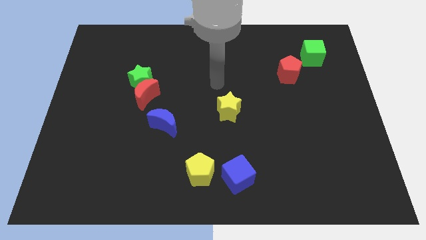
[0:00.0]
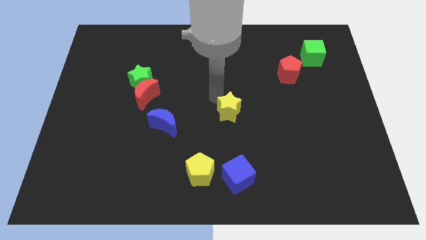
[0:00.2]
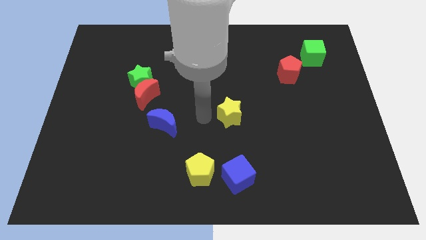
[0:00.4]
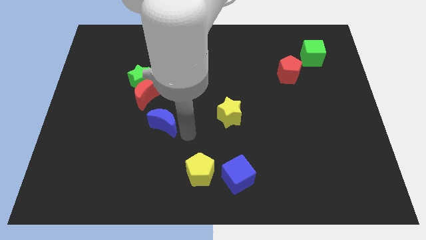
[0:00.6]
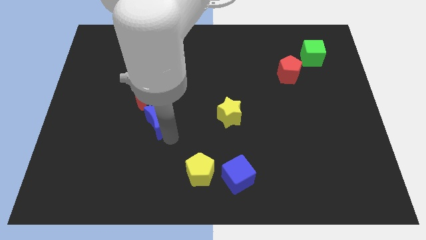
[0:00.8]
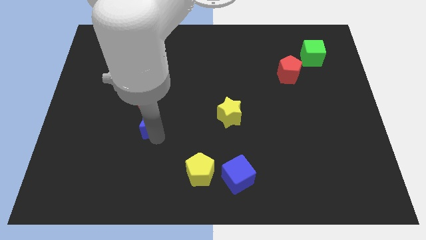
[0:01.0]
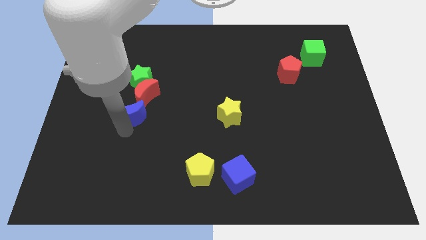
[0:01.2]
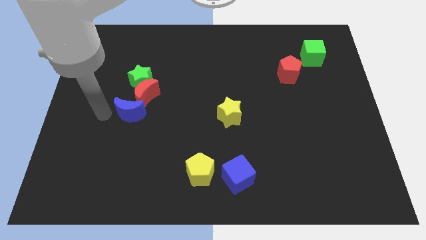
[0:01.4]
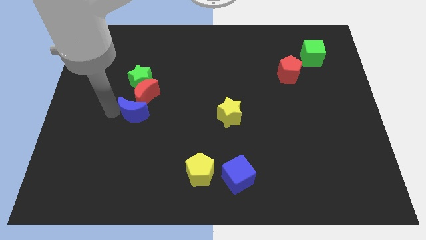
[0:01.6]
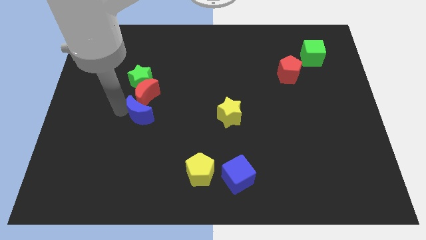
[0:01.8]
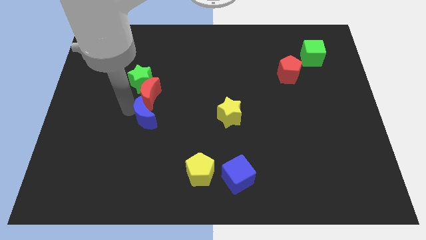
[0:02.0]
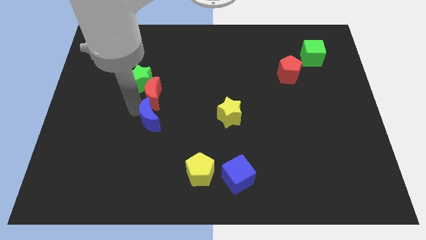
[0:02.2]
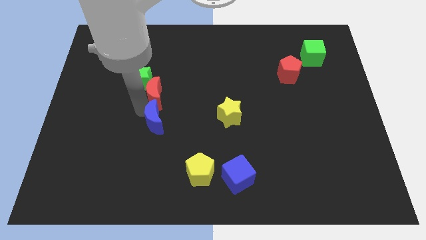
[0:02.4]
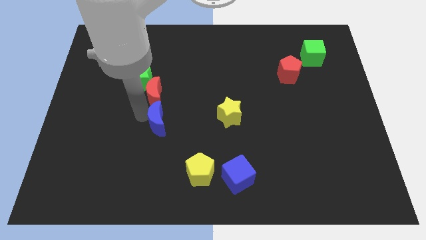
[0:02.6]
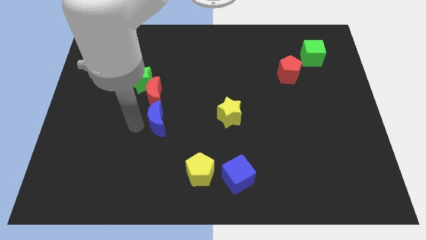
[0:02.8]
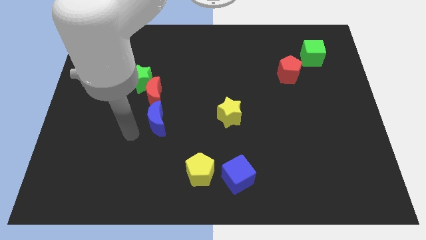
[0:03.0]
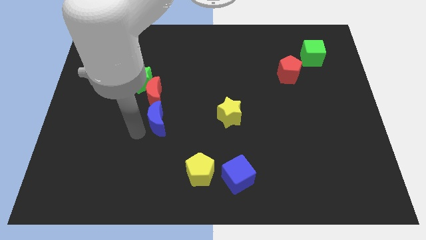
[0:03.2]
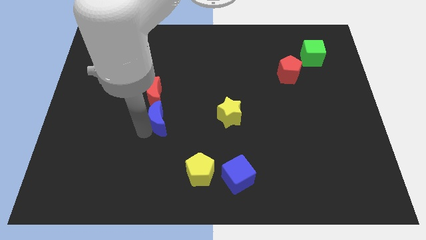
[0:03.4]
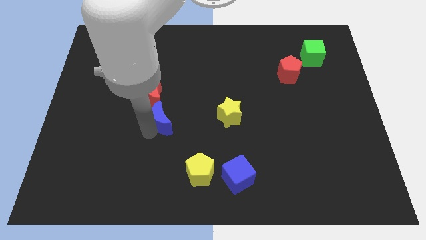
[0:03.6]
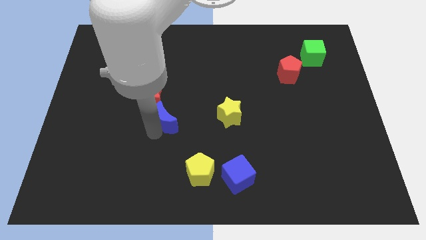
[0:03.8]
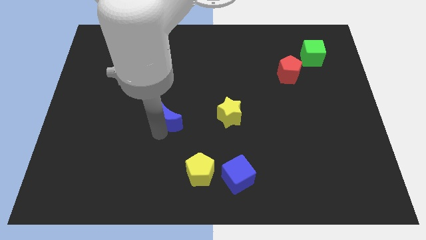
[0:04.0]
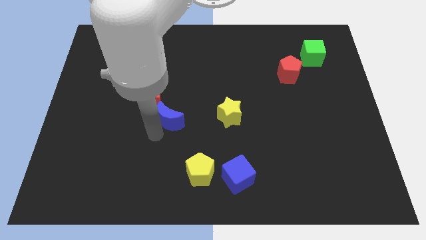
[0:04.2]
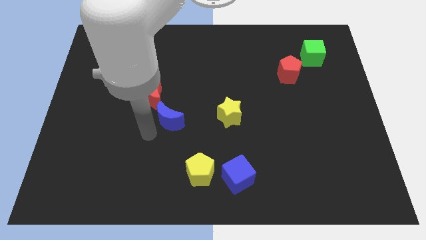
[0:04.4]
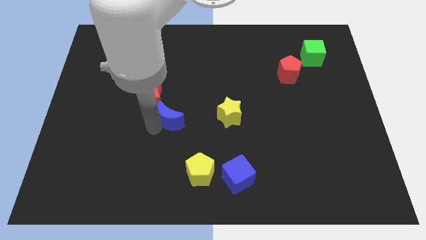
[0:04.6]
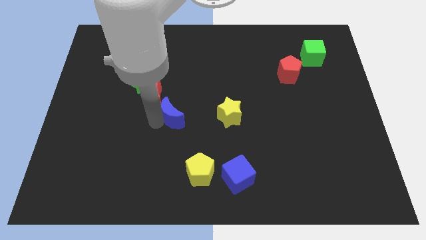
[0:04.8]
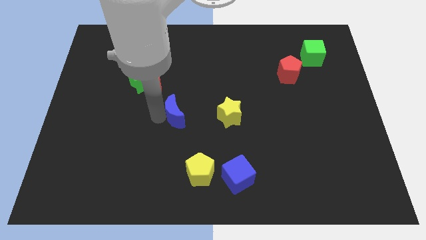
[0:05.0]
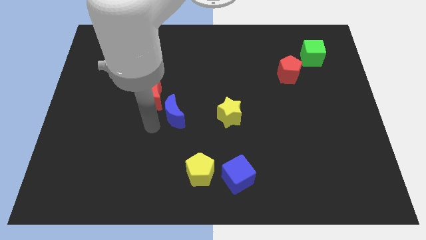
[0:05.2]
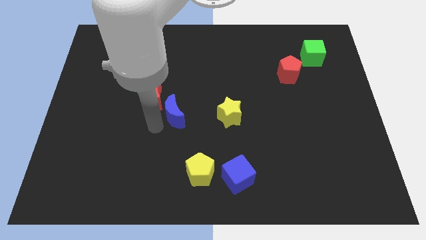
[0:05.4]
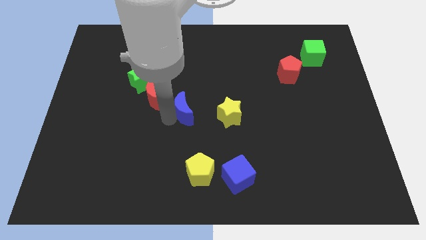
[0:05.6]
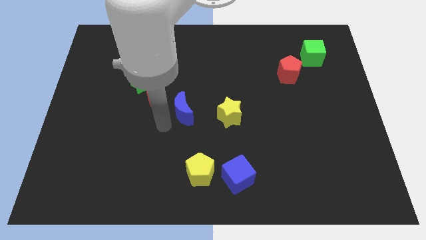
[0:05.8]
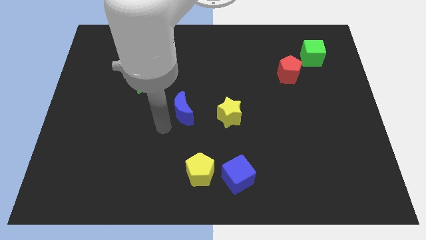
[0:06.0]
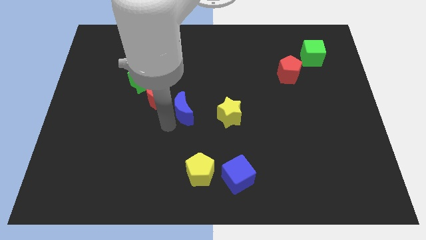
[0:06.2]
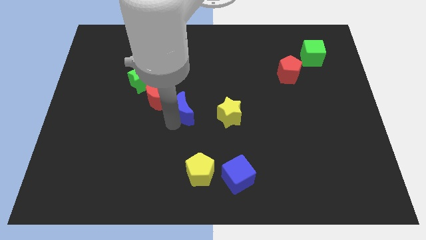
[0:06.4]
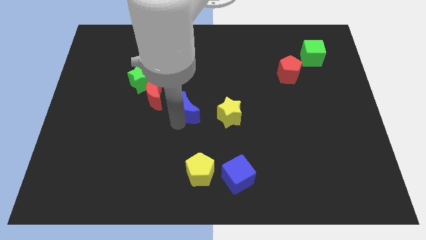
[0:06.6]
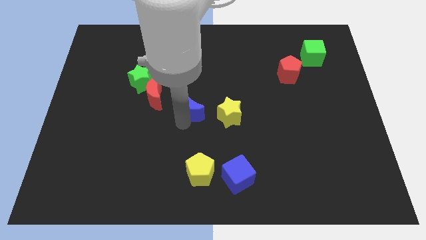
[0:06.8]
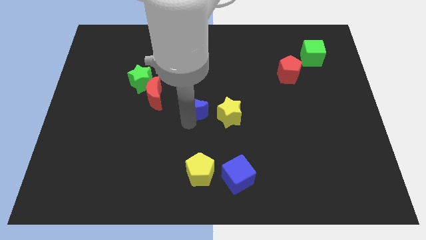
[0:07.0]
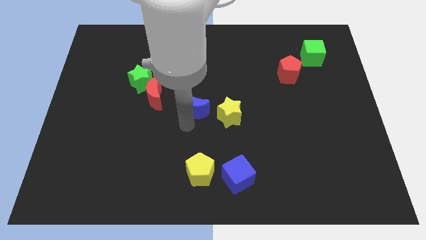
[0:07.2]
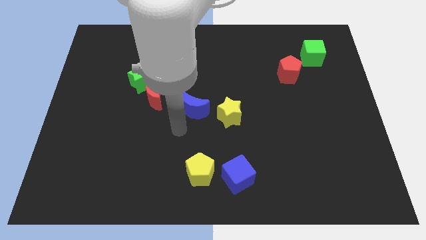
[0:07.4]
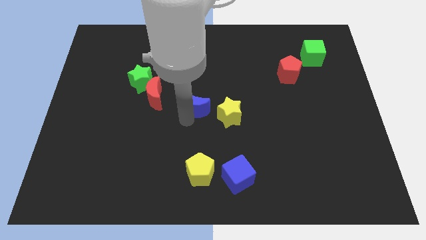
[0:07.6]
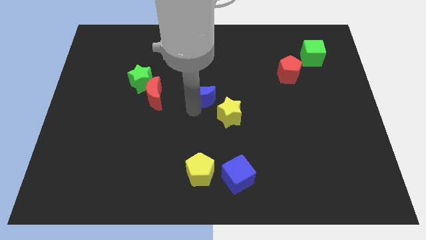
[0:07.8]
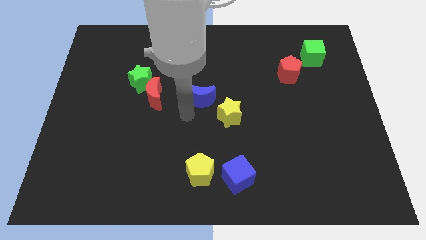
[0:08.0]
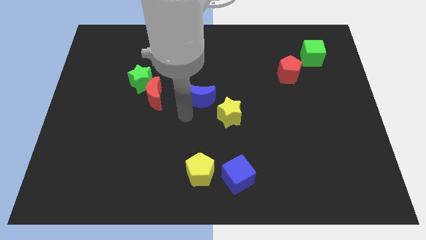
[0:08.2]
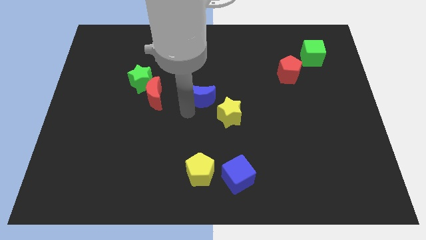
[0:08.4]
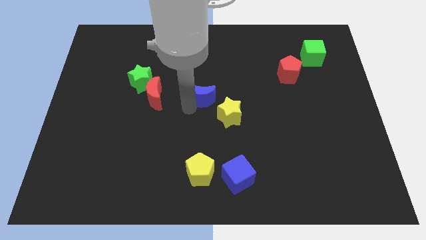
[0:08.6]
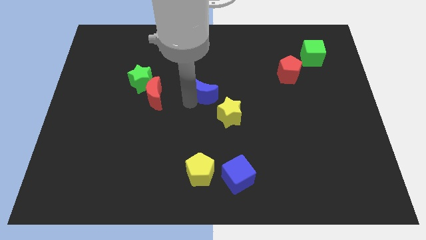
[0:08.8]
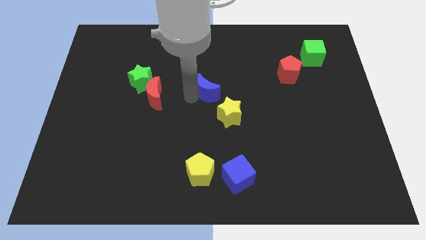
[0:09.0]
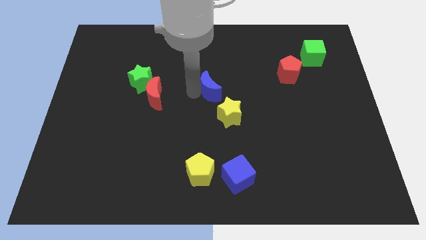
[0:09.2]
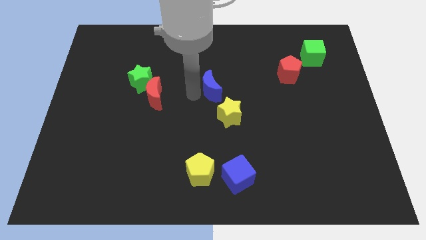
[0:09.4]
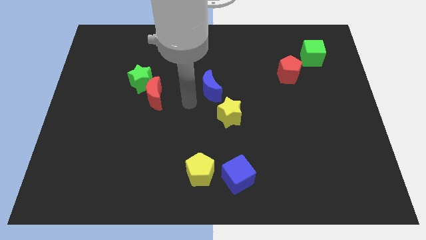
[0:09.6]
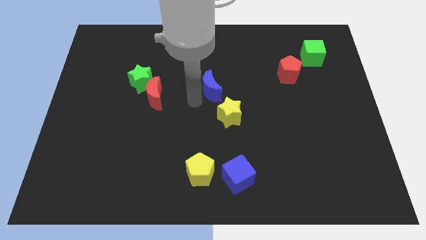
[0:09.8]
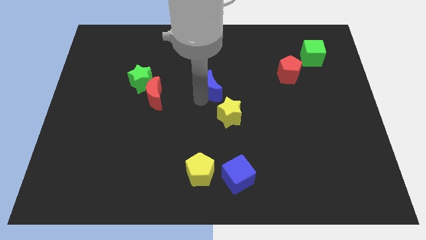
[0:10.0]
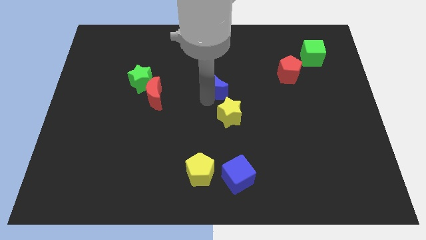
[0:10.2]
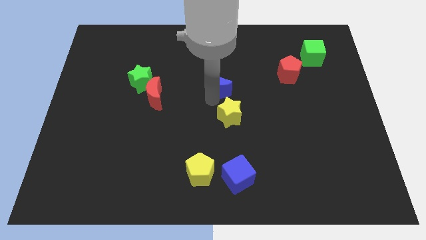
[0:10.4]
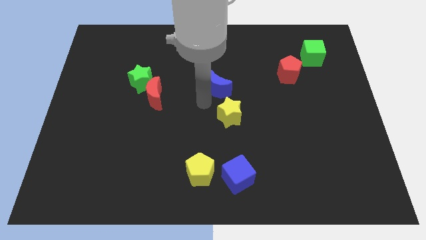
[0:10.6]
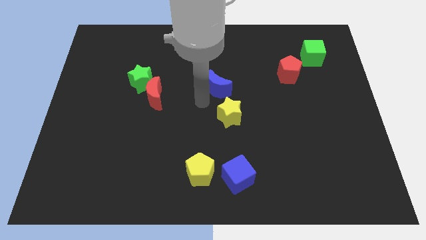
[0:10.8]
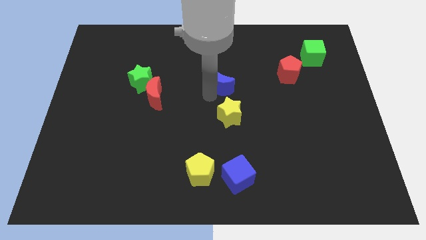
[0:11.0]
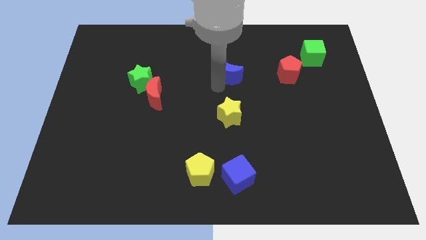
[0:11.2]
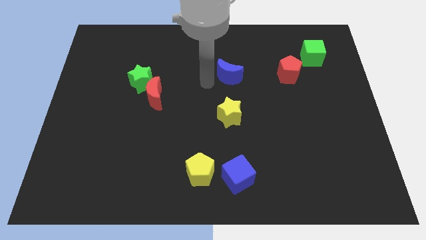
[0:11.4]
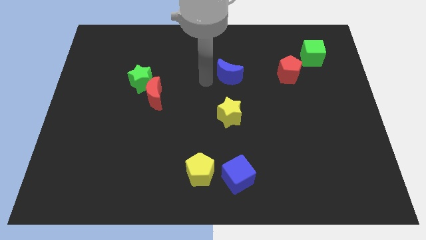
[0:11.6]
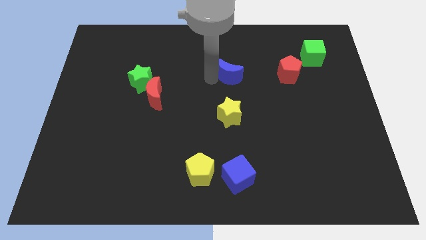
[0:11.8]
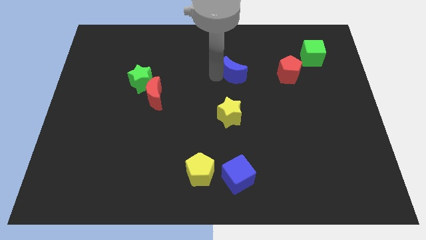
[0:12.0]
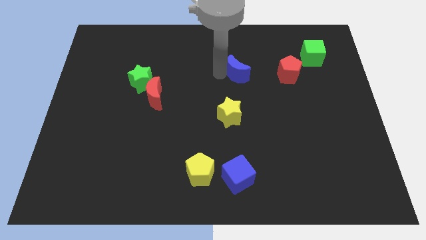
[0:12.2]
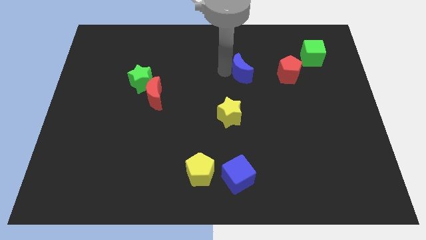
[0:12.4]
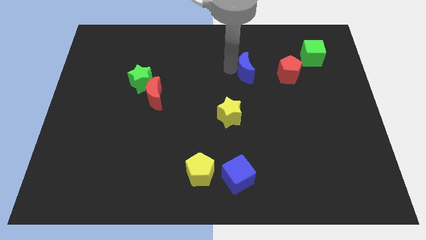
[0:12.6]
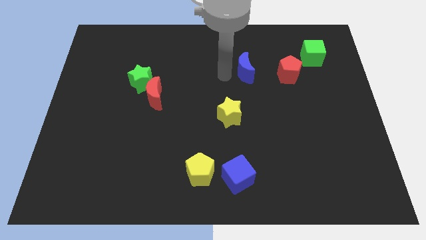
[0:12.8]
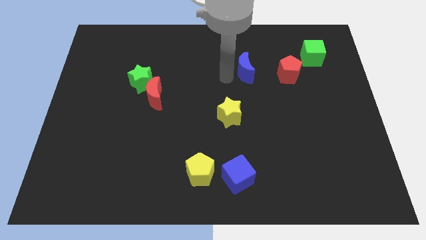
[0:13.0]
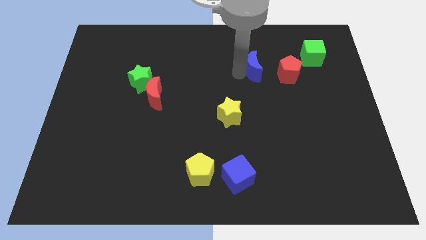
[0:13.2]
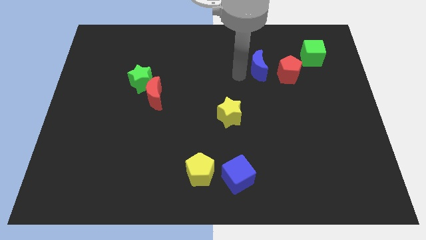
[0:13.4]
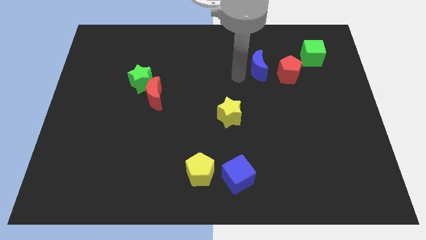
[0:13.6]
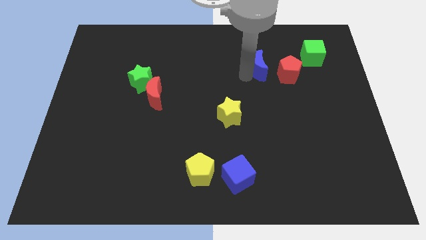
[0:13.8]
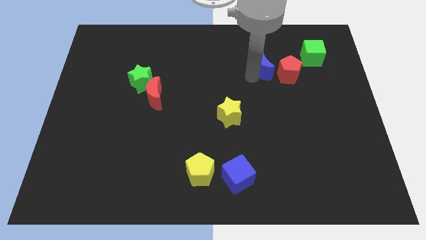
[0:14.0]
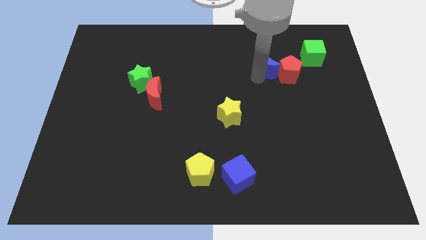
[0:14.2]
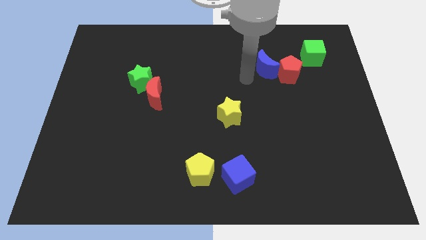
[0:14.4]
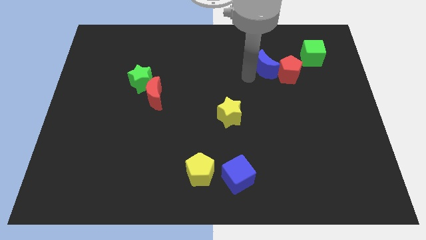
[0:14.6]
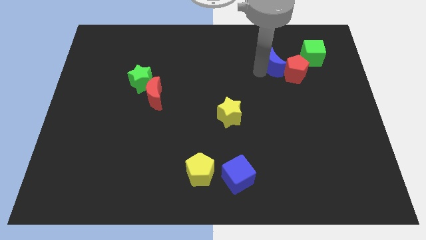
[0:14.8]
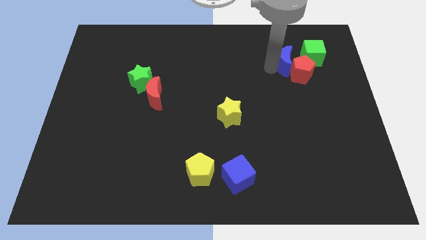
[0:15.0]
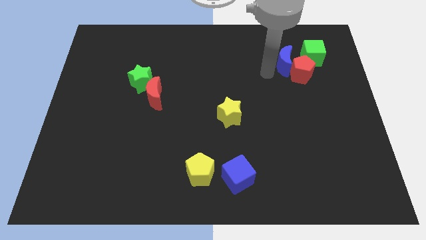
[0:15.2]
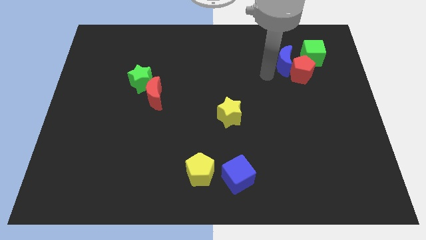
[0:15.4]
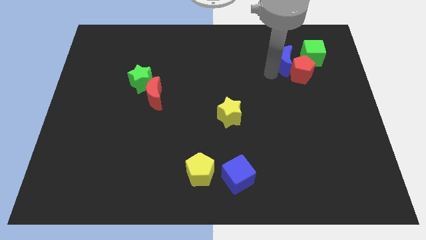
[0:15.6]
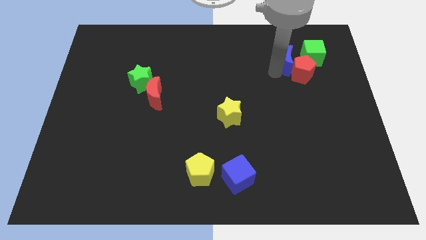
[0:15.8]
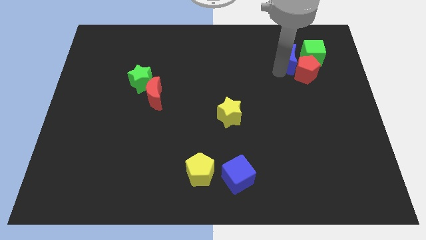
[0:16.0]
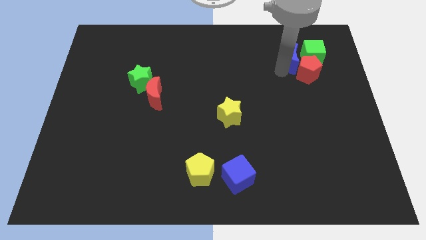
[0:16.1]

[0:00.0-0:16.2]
move the blue moon towards the green cube
